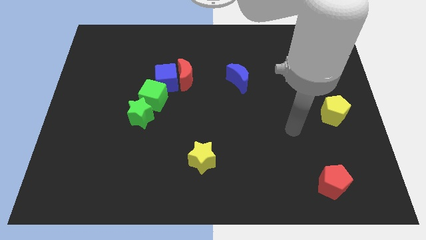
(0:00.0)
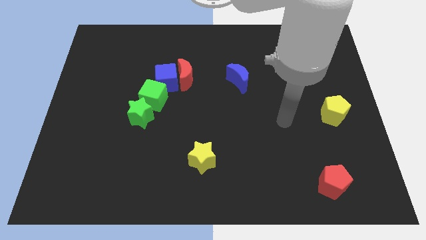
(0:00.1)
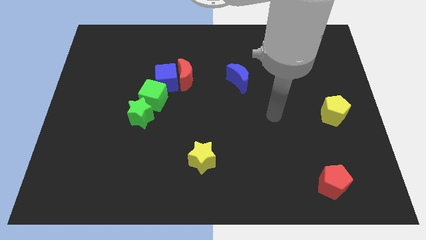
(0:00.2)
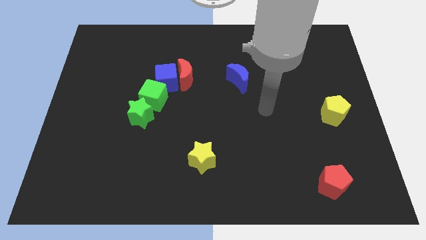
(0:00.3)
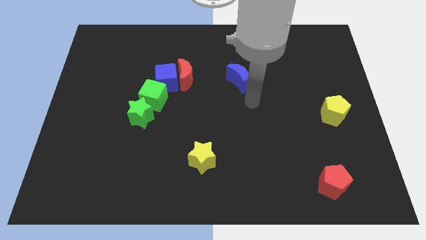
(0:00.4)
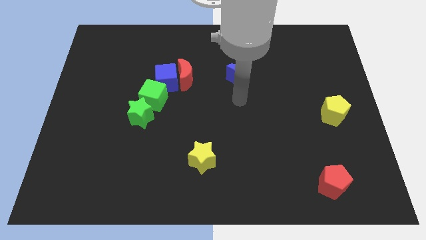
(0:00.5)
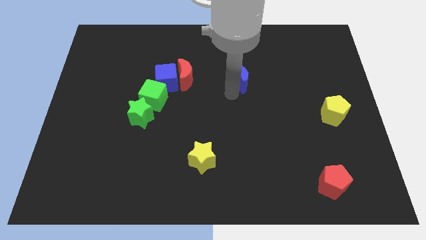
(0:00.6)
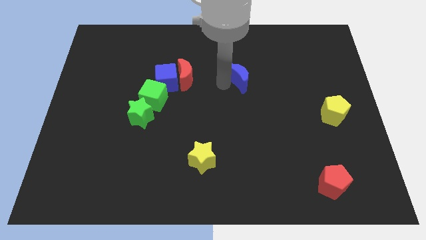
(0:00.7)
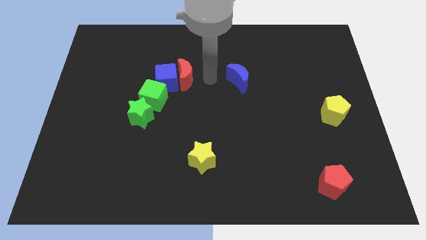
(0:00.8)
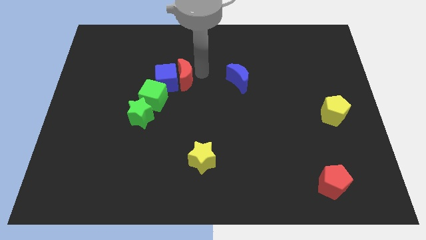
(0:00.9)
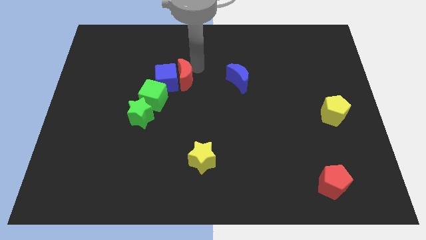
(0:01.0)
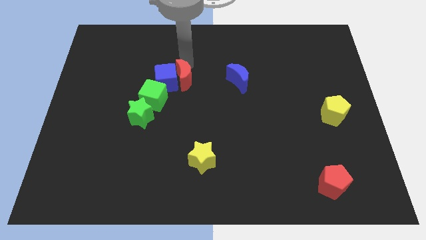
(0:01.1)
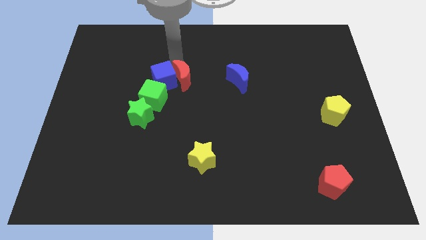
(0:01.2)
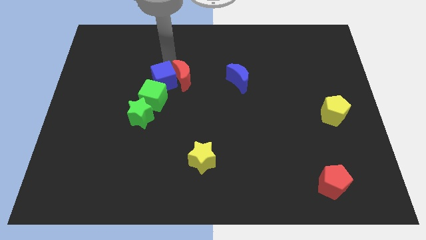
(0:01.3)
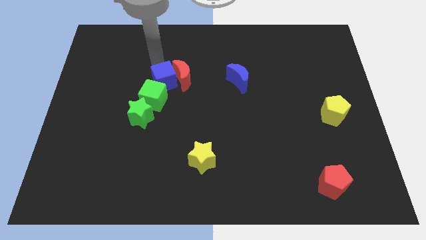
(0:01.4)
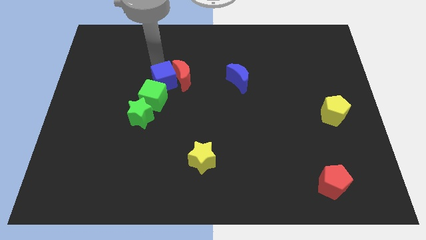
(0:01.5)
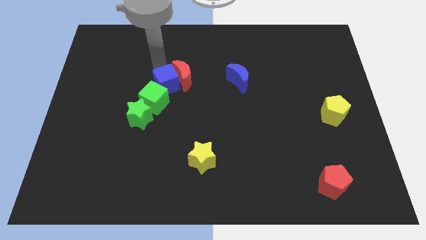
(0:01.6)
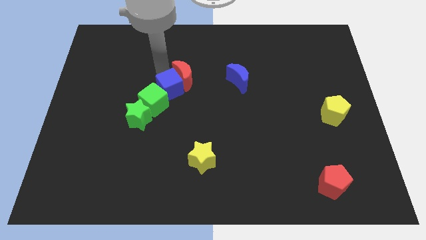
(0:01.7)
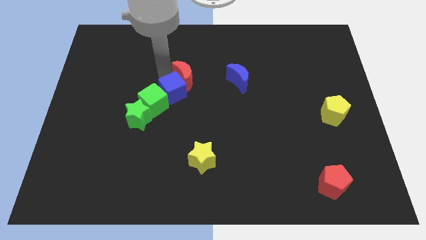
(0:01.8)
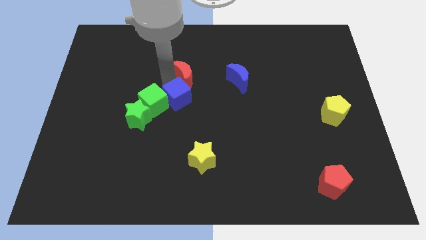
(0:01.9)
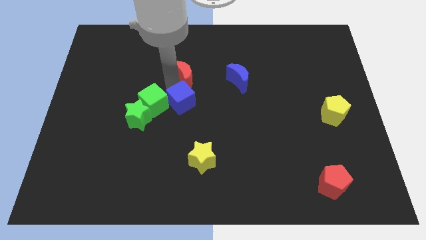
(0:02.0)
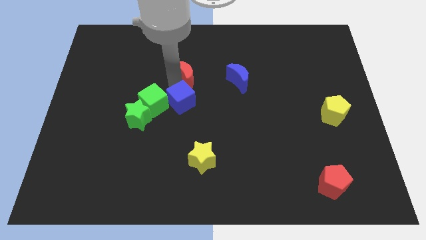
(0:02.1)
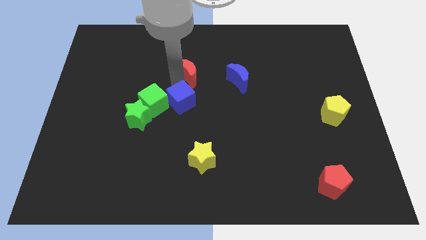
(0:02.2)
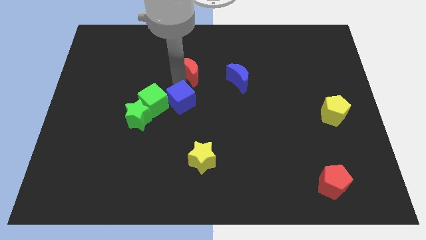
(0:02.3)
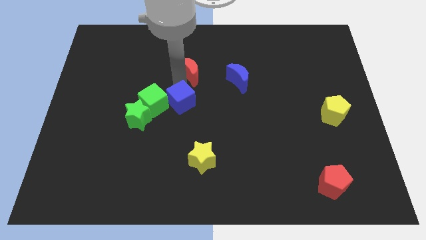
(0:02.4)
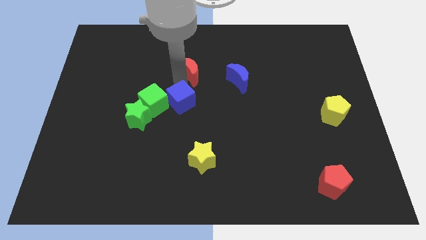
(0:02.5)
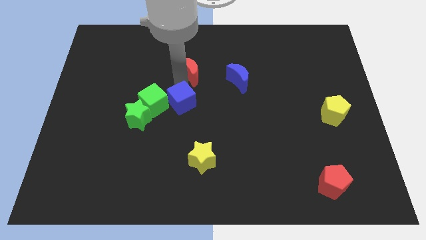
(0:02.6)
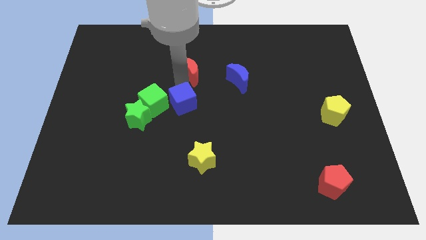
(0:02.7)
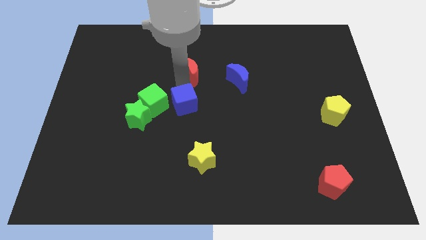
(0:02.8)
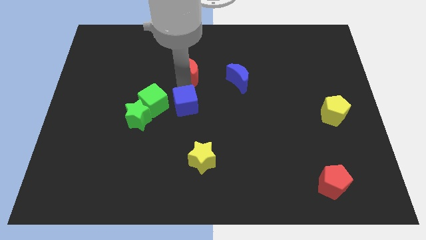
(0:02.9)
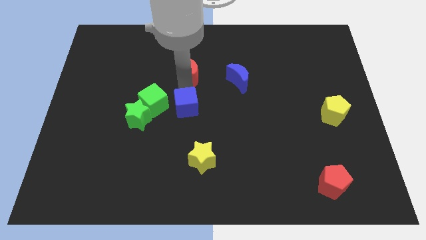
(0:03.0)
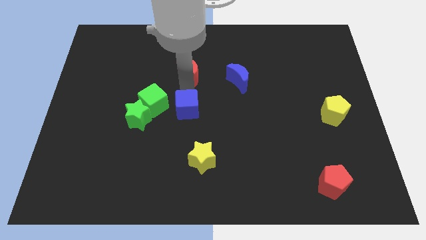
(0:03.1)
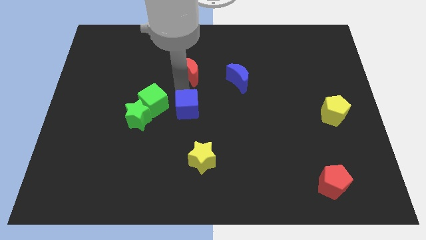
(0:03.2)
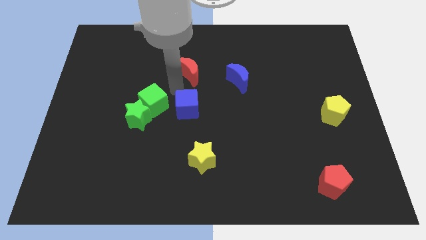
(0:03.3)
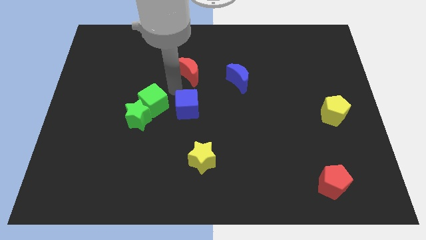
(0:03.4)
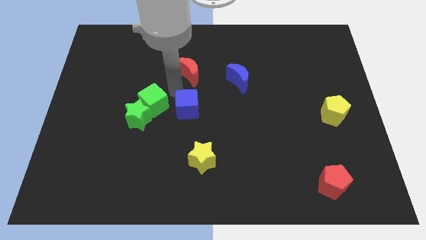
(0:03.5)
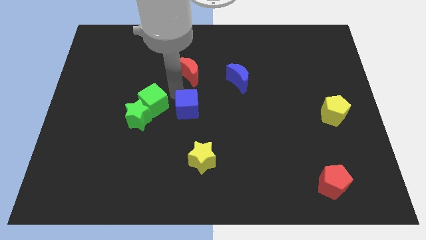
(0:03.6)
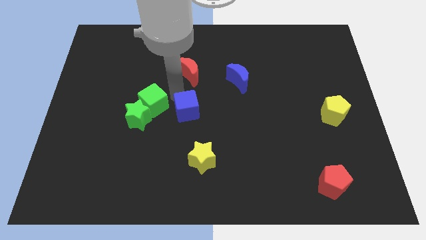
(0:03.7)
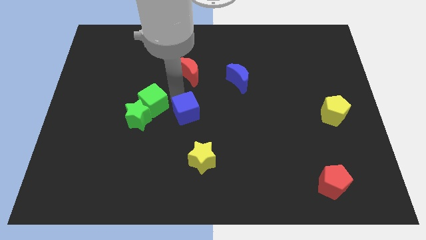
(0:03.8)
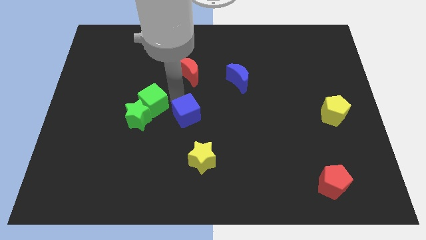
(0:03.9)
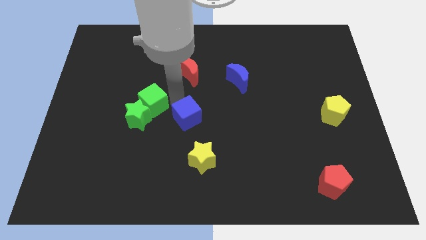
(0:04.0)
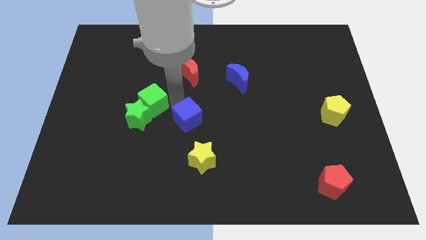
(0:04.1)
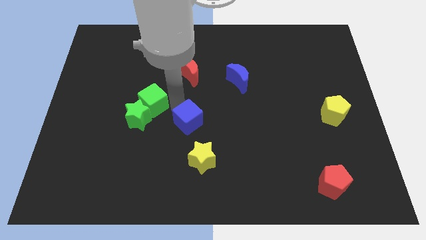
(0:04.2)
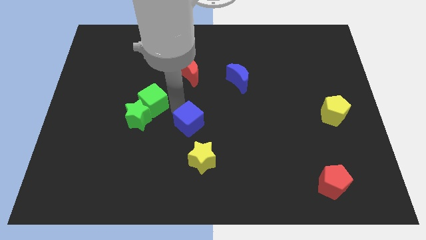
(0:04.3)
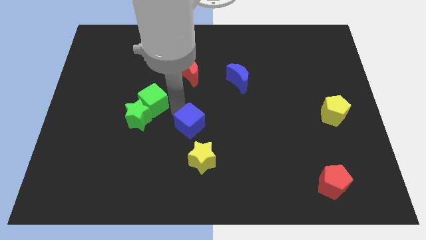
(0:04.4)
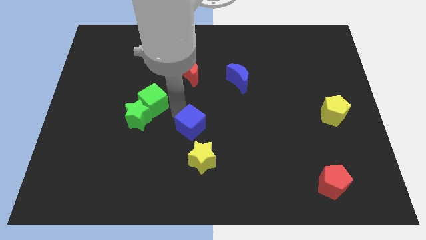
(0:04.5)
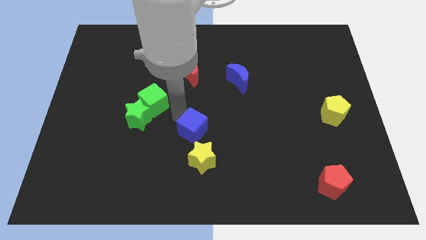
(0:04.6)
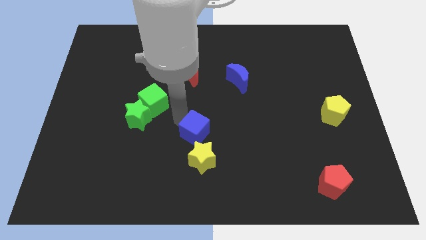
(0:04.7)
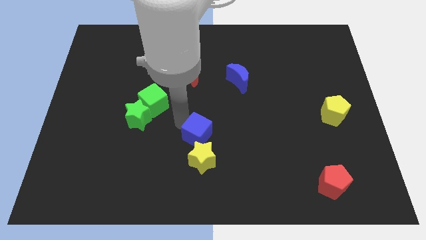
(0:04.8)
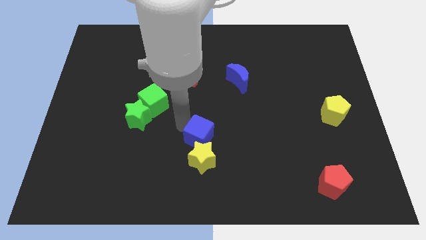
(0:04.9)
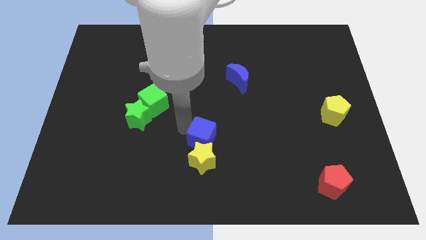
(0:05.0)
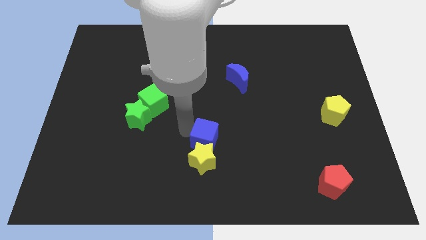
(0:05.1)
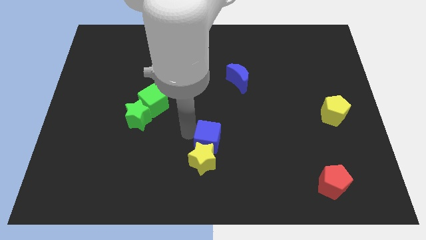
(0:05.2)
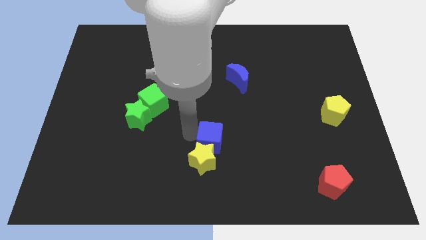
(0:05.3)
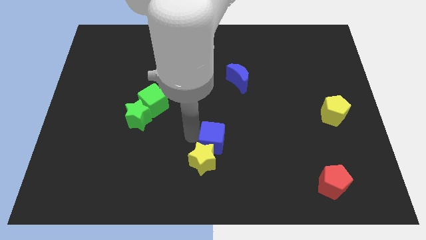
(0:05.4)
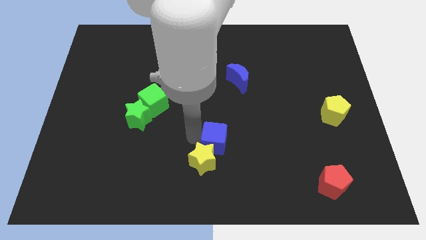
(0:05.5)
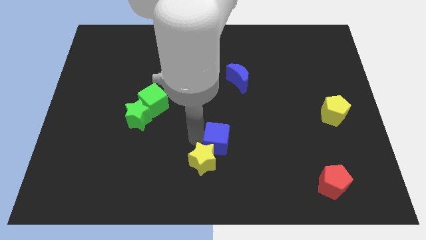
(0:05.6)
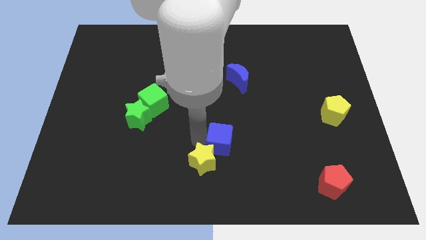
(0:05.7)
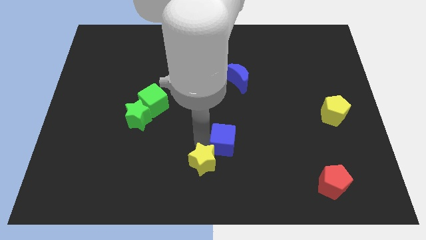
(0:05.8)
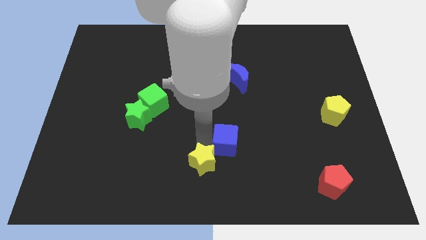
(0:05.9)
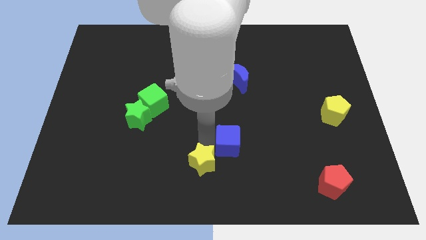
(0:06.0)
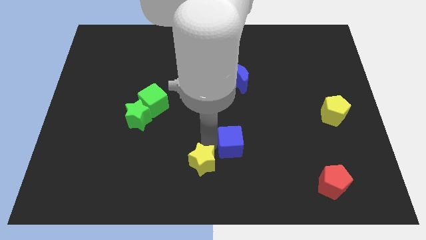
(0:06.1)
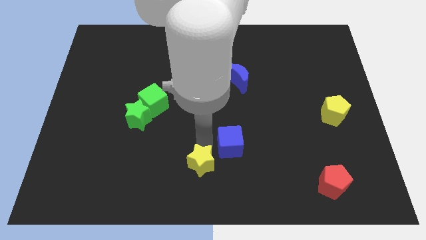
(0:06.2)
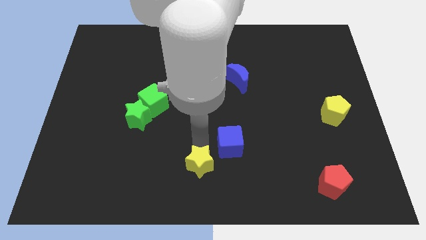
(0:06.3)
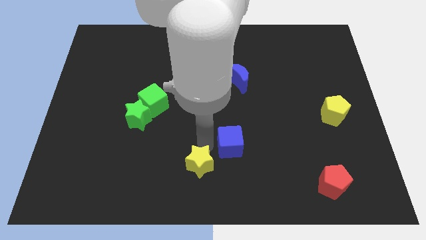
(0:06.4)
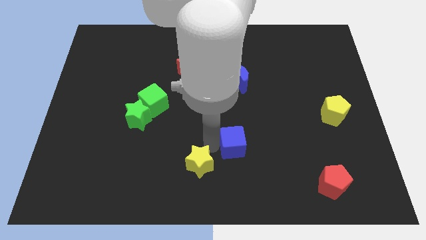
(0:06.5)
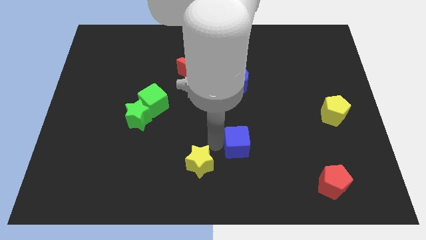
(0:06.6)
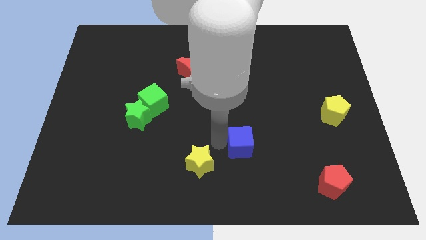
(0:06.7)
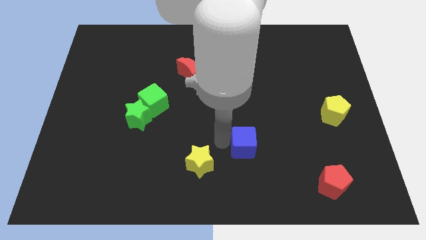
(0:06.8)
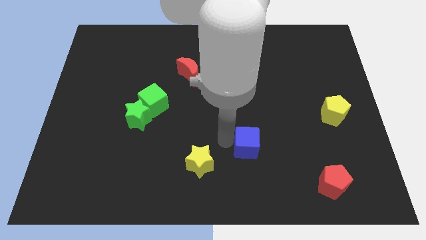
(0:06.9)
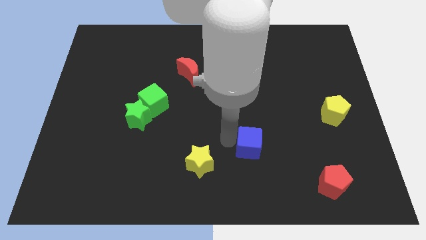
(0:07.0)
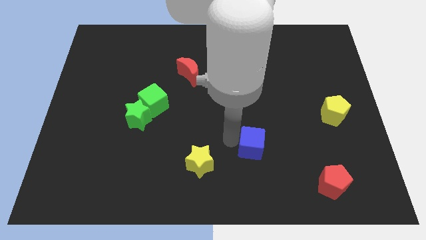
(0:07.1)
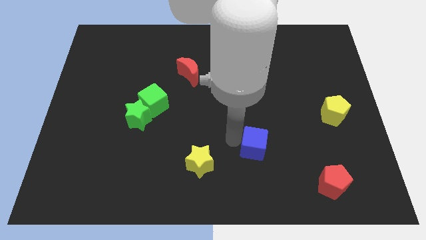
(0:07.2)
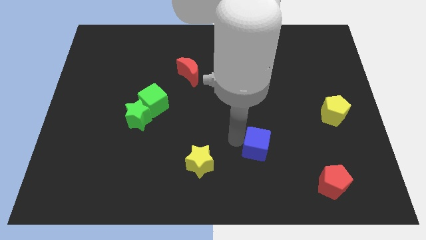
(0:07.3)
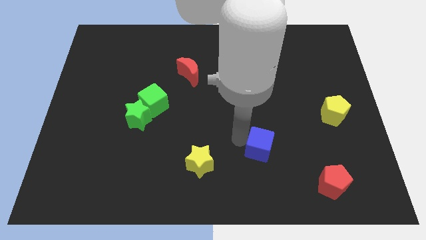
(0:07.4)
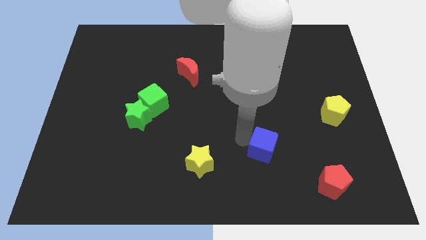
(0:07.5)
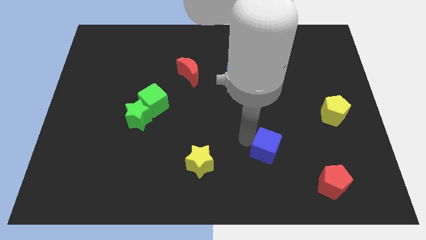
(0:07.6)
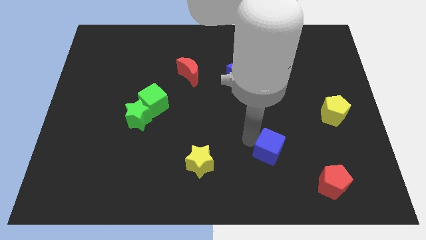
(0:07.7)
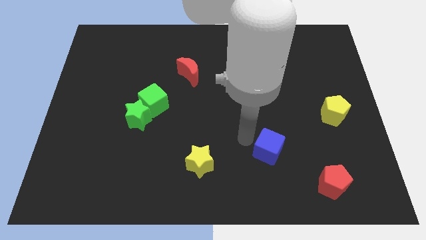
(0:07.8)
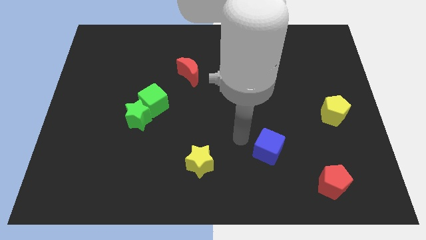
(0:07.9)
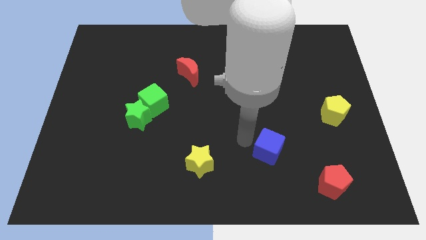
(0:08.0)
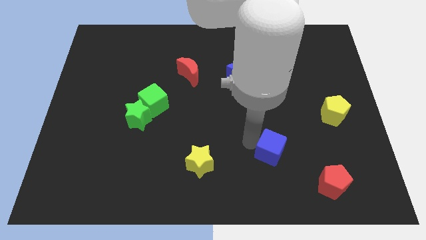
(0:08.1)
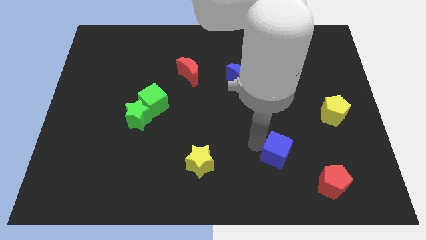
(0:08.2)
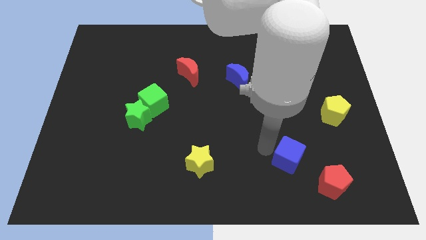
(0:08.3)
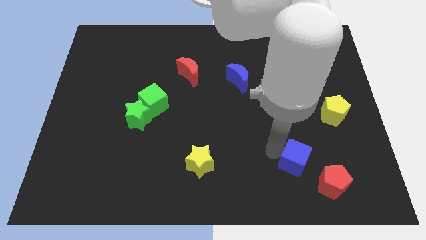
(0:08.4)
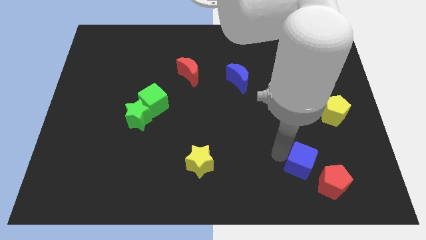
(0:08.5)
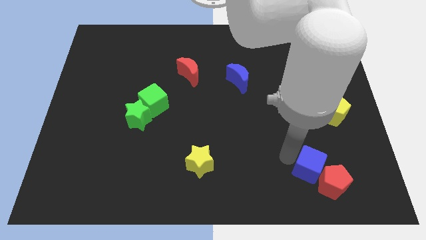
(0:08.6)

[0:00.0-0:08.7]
move the blue cube next to the red pentagon
